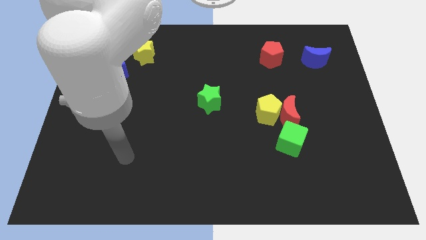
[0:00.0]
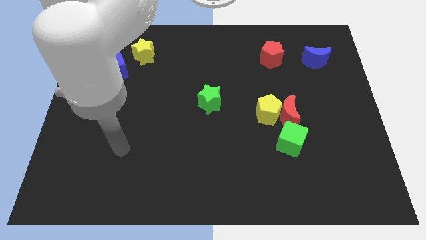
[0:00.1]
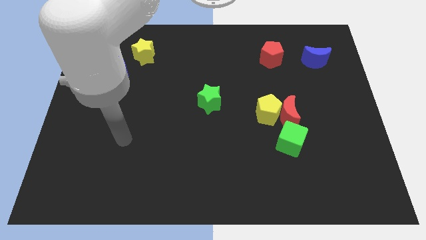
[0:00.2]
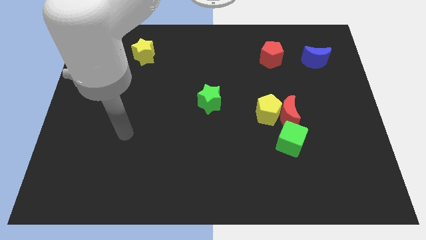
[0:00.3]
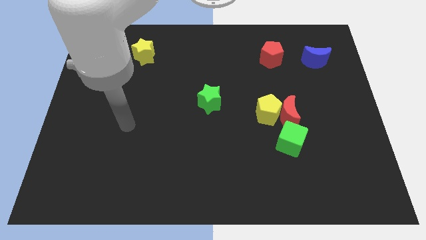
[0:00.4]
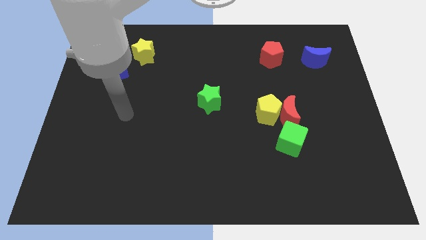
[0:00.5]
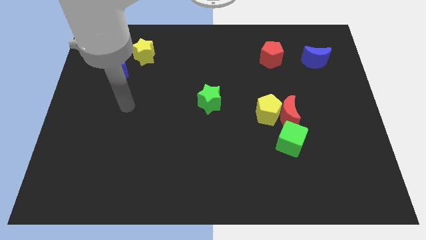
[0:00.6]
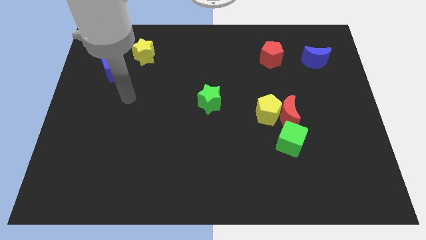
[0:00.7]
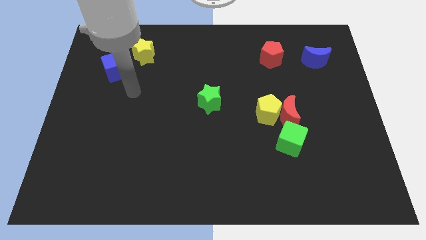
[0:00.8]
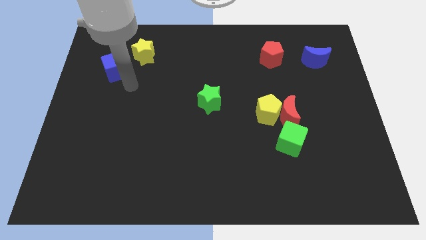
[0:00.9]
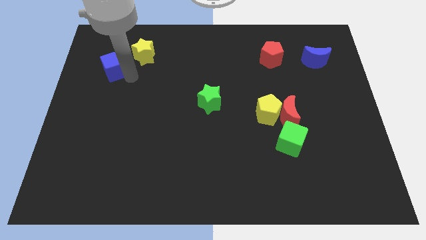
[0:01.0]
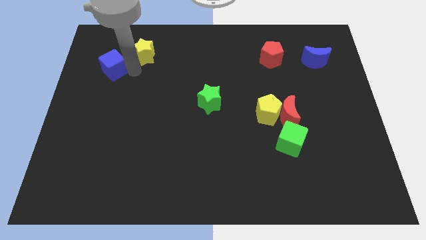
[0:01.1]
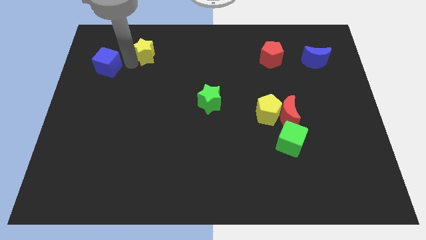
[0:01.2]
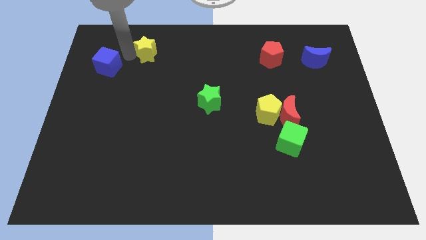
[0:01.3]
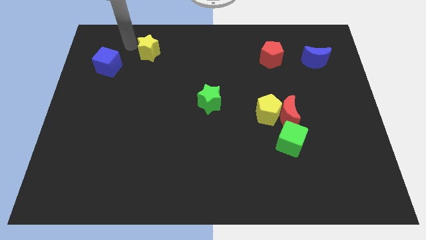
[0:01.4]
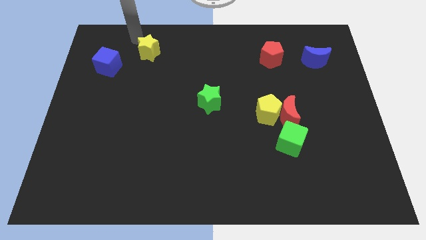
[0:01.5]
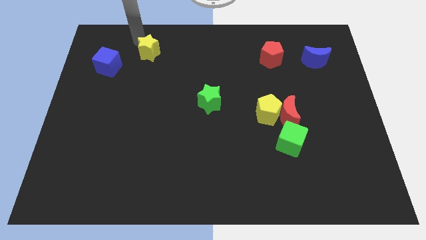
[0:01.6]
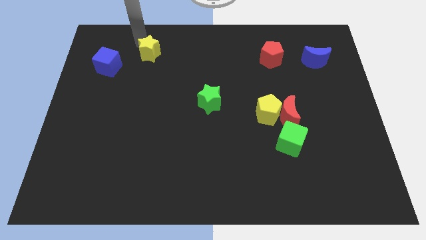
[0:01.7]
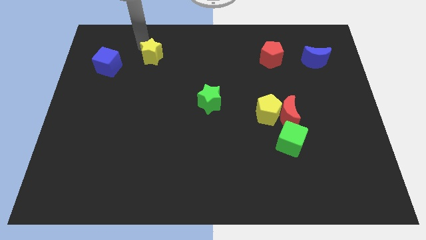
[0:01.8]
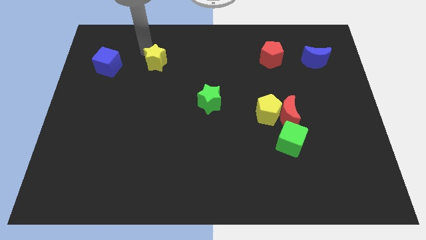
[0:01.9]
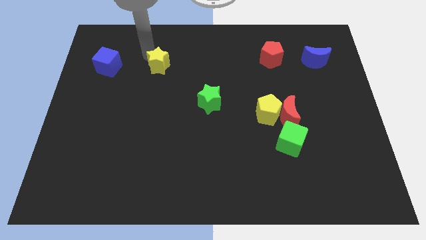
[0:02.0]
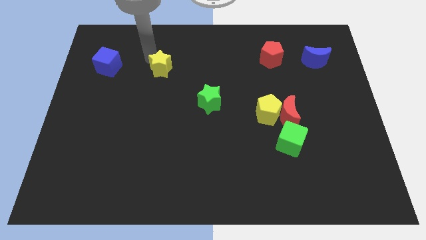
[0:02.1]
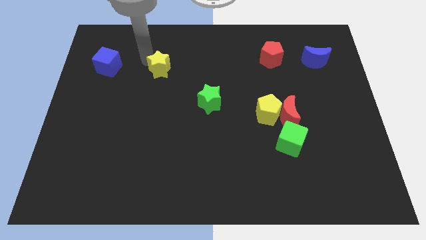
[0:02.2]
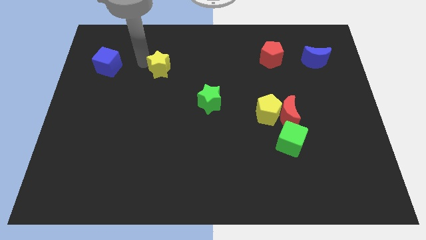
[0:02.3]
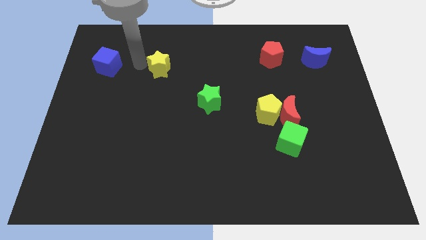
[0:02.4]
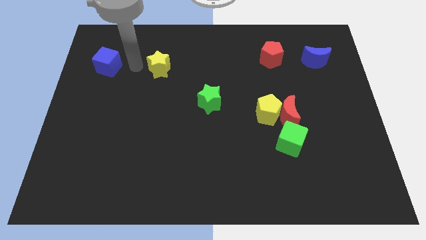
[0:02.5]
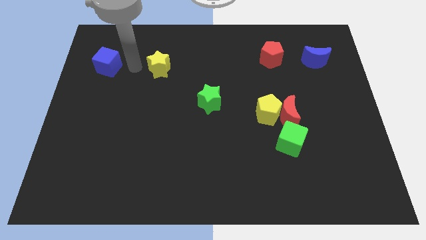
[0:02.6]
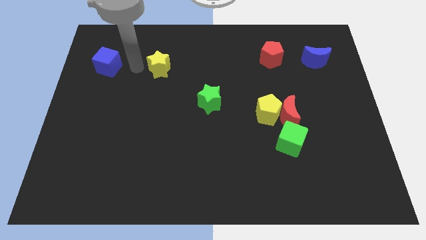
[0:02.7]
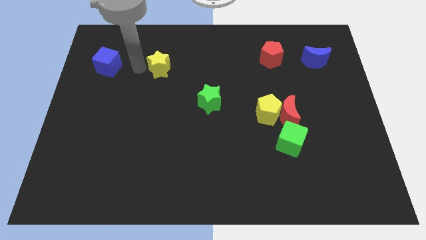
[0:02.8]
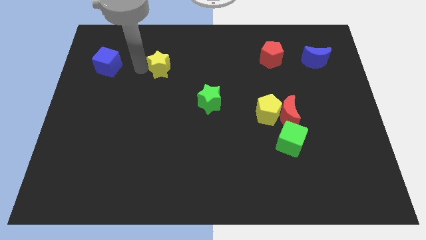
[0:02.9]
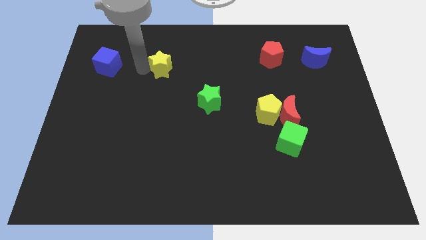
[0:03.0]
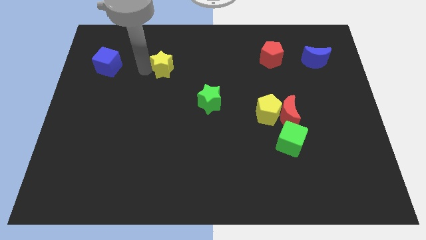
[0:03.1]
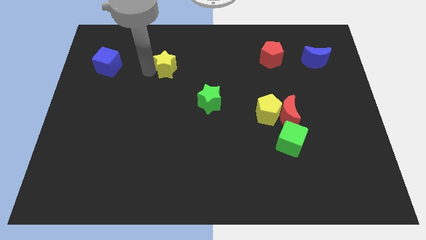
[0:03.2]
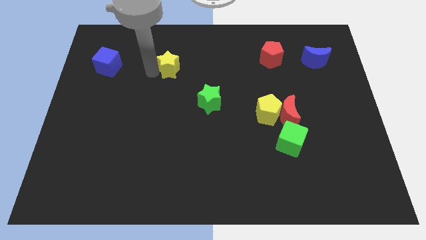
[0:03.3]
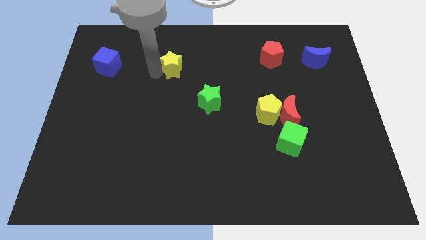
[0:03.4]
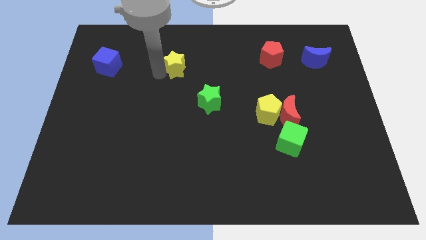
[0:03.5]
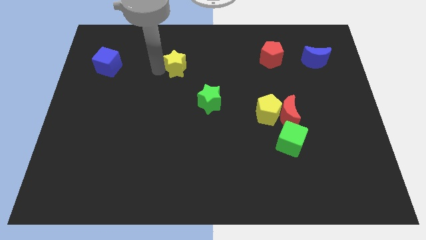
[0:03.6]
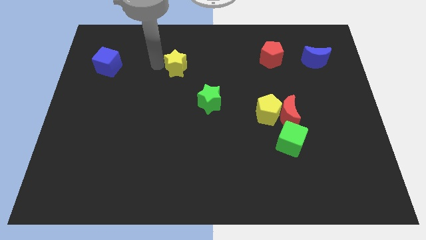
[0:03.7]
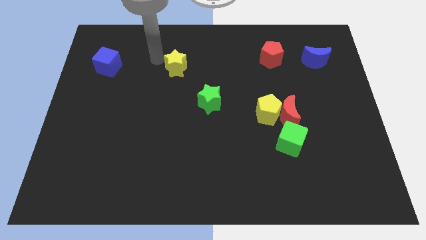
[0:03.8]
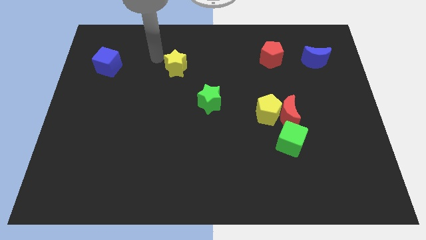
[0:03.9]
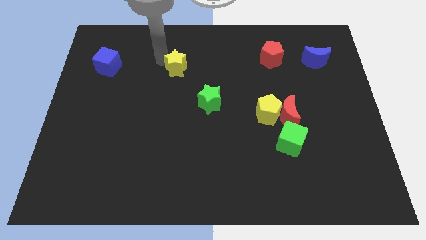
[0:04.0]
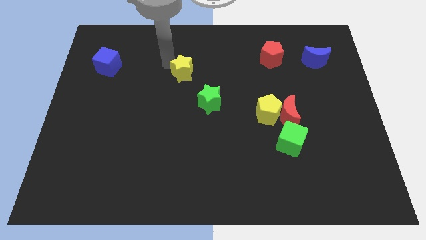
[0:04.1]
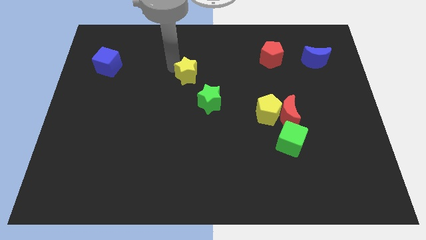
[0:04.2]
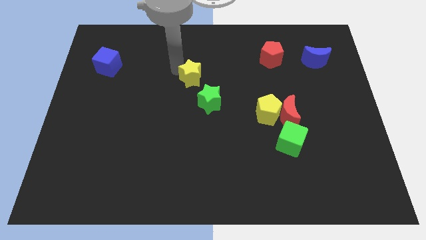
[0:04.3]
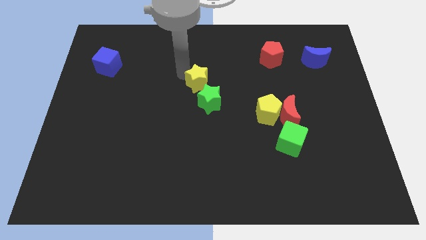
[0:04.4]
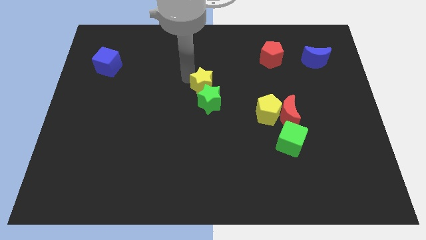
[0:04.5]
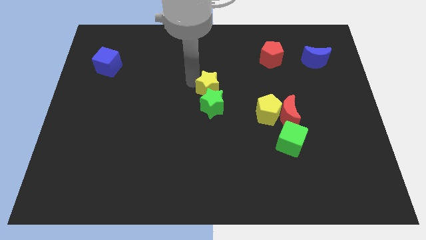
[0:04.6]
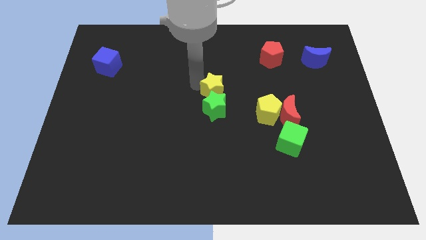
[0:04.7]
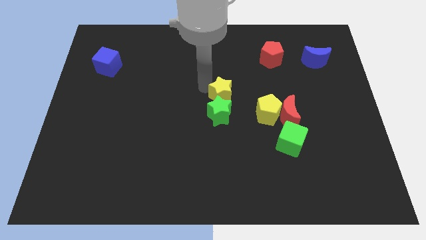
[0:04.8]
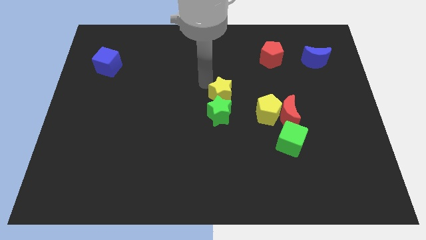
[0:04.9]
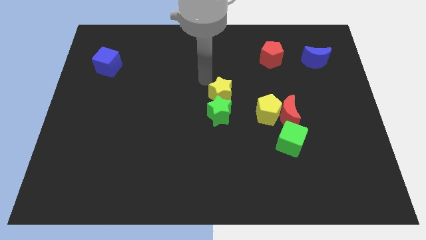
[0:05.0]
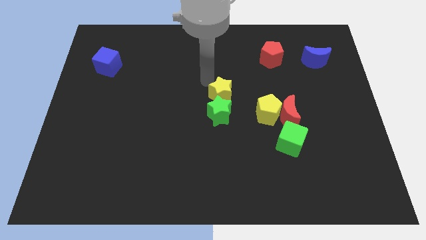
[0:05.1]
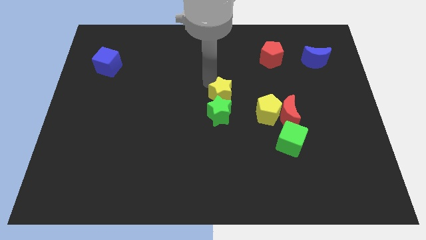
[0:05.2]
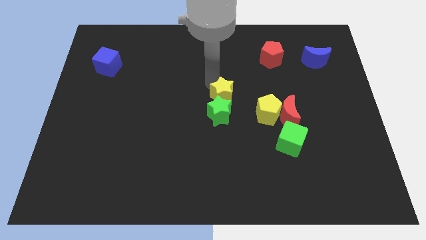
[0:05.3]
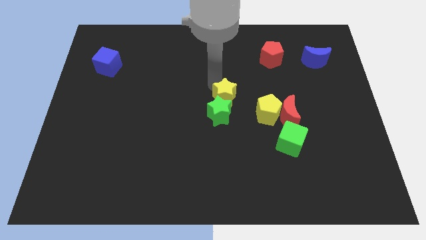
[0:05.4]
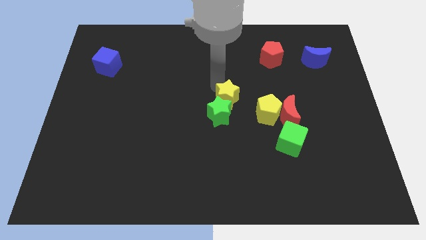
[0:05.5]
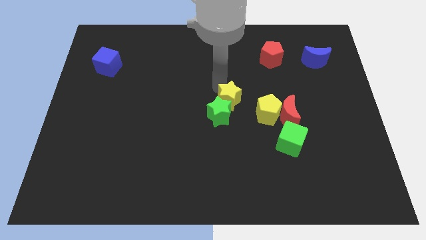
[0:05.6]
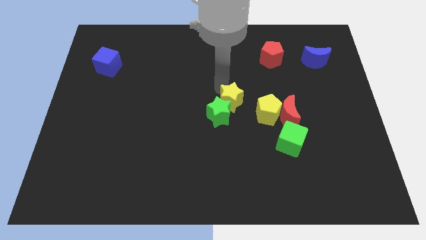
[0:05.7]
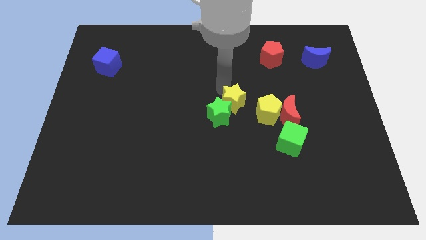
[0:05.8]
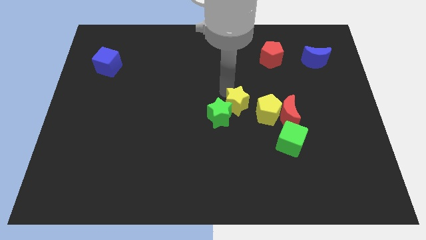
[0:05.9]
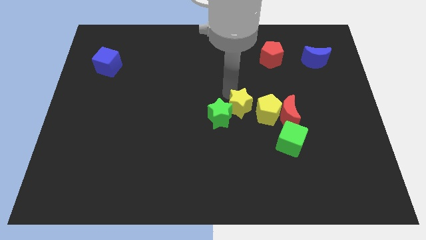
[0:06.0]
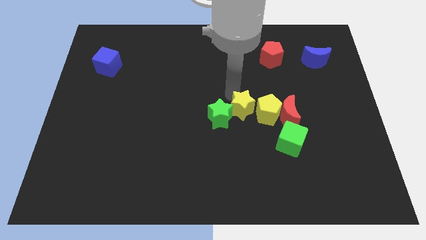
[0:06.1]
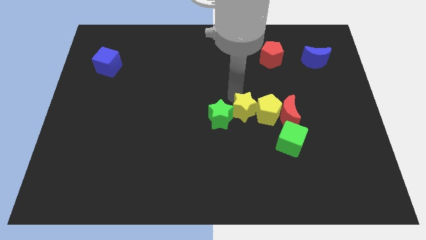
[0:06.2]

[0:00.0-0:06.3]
push the yellow star to the bottom left side of the yellow pentagon

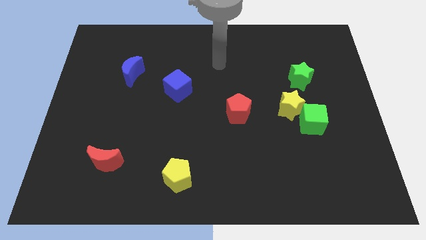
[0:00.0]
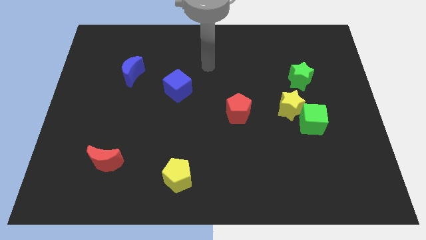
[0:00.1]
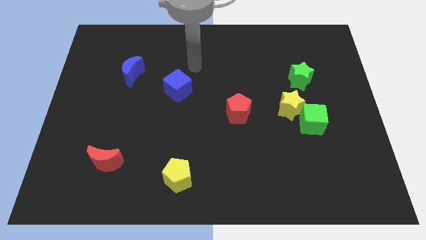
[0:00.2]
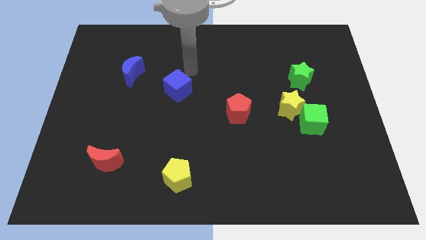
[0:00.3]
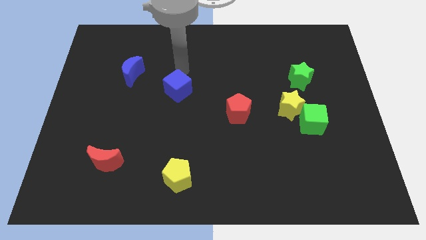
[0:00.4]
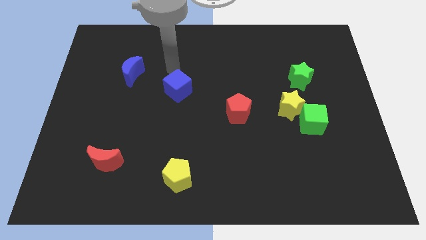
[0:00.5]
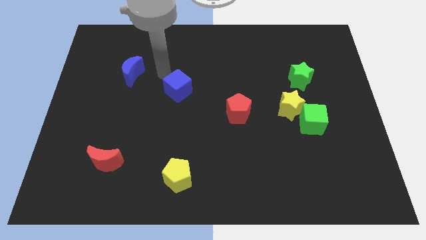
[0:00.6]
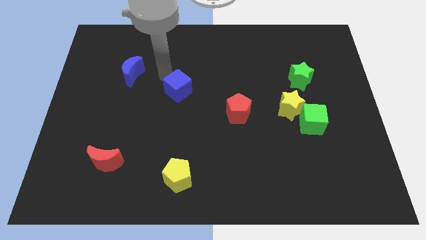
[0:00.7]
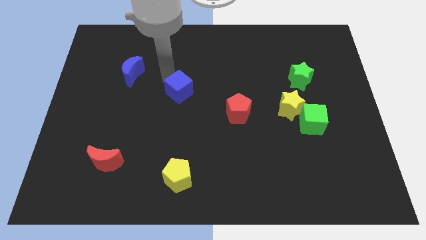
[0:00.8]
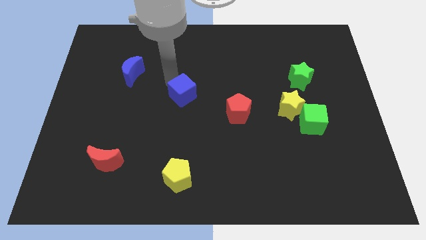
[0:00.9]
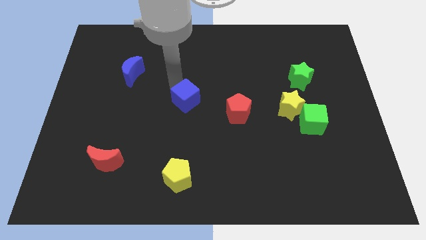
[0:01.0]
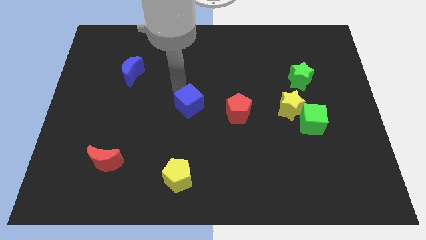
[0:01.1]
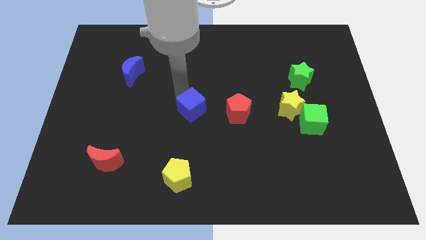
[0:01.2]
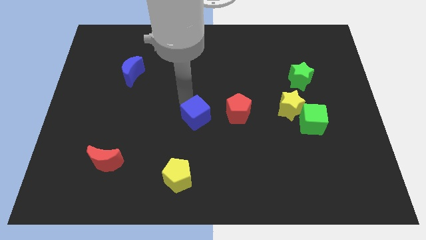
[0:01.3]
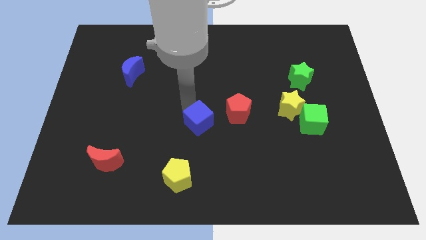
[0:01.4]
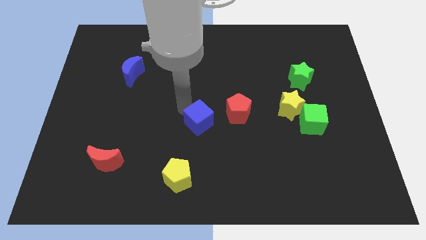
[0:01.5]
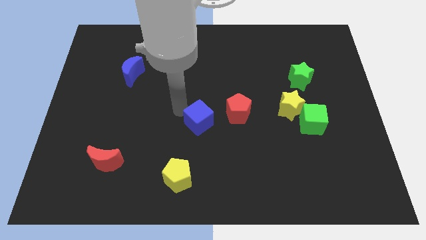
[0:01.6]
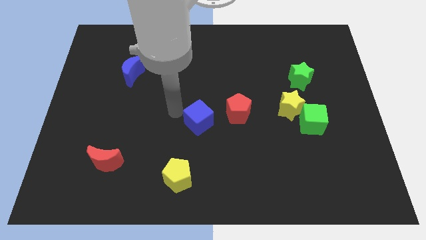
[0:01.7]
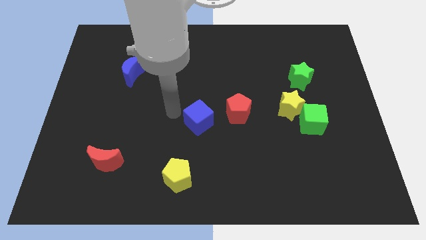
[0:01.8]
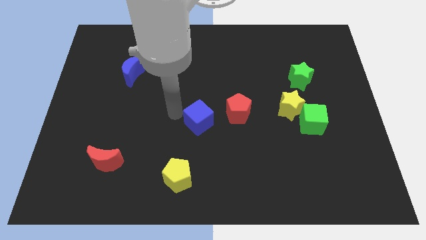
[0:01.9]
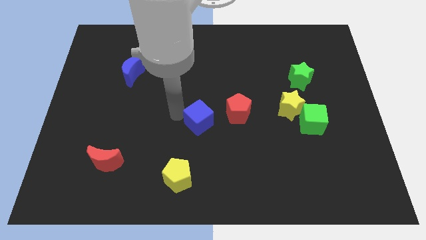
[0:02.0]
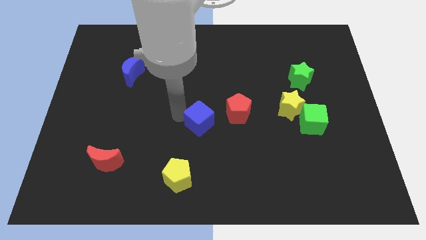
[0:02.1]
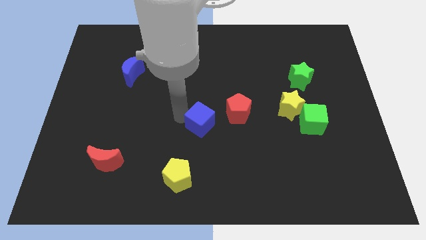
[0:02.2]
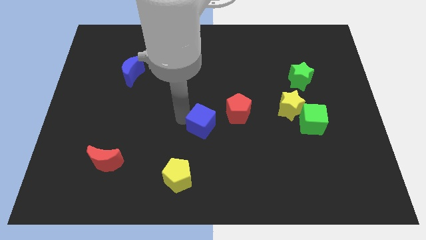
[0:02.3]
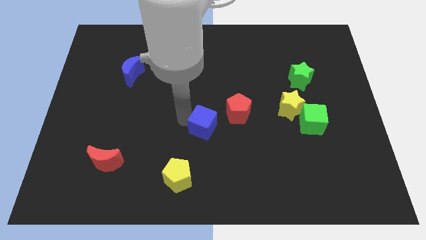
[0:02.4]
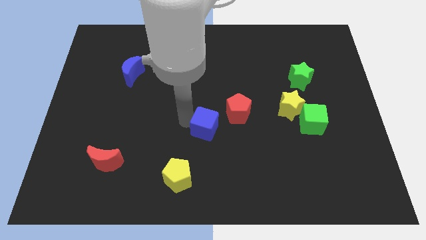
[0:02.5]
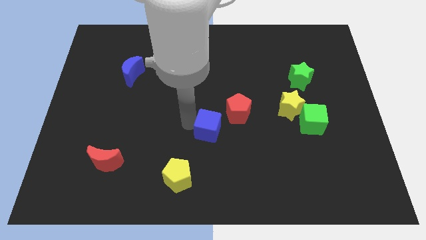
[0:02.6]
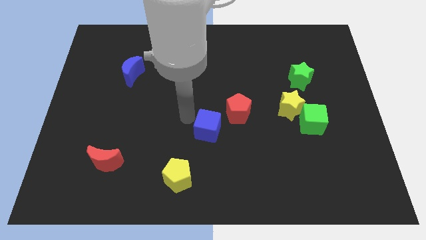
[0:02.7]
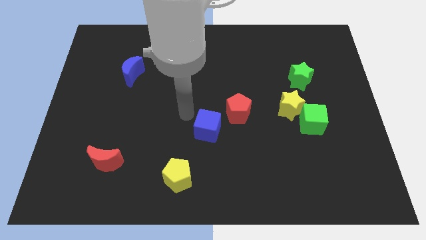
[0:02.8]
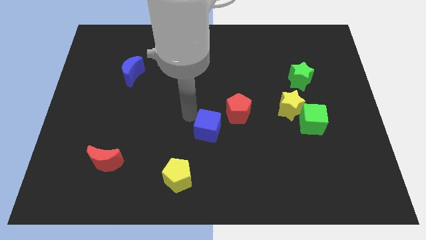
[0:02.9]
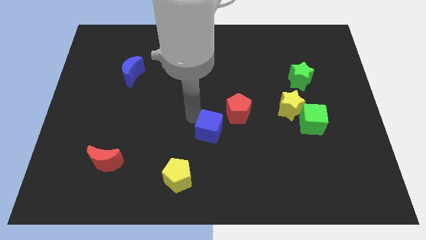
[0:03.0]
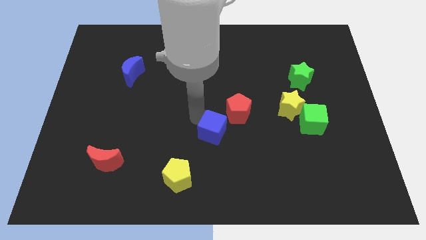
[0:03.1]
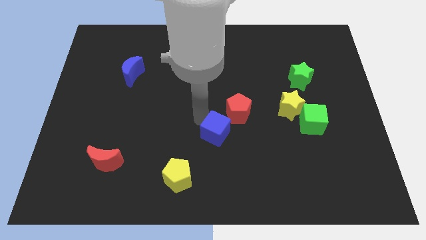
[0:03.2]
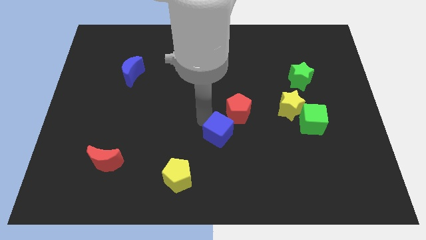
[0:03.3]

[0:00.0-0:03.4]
put the blue cube to the bottom of the red pentagon
